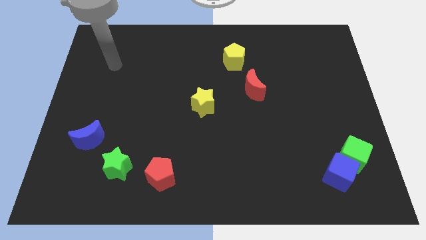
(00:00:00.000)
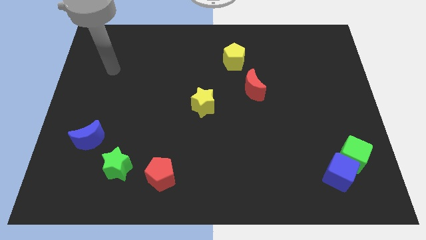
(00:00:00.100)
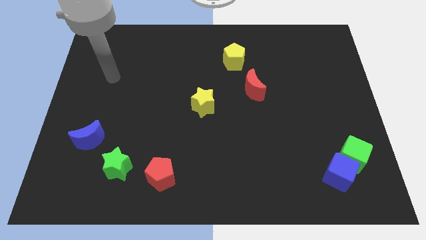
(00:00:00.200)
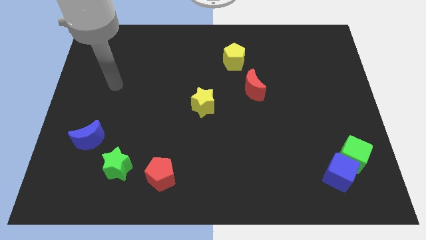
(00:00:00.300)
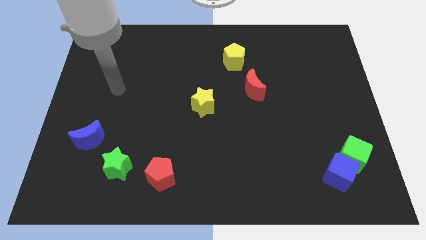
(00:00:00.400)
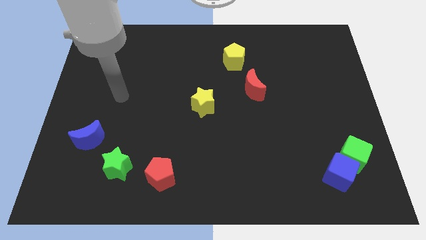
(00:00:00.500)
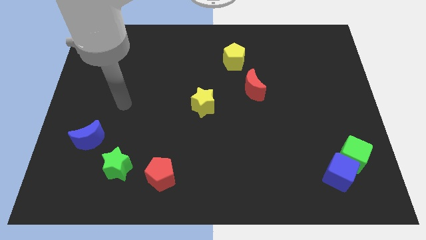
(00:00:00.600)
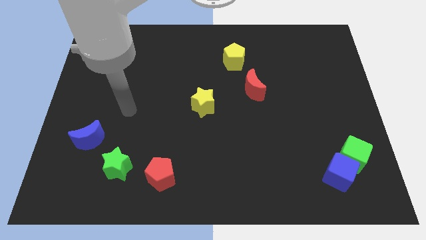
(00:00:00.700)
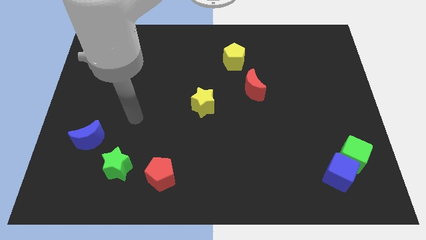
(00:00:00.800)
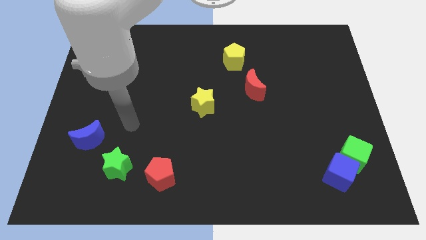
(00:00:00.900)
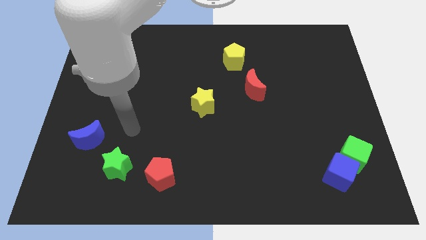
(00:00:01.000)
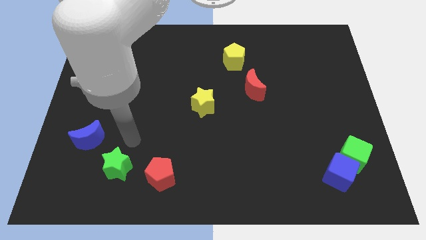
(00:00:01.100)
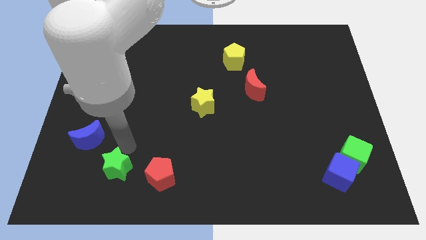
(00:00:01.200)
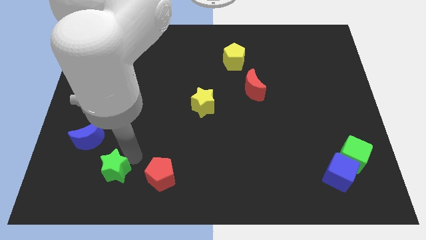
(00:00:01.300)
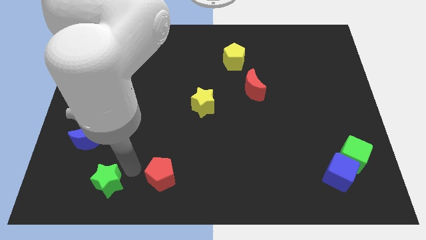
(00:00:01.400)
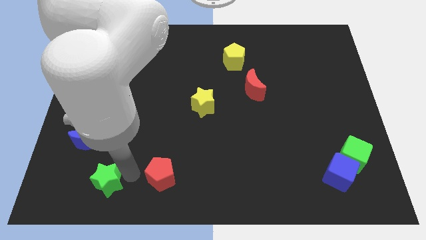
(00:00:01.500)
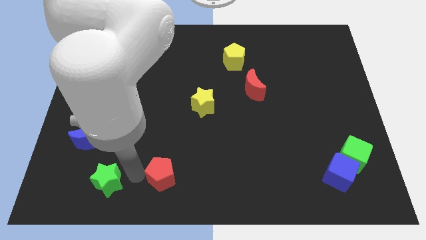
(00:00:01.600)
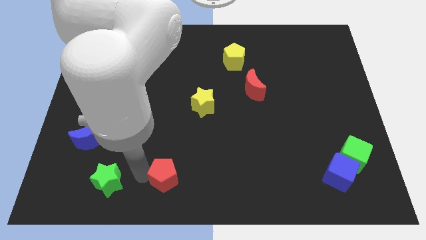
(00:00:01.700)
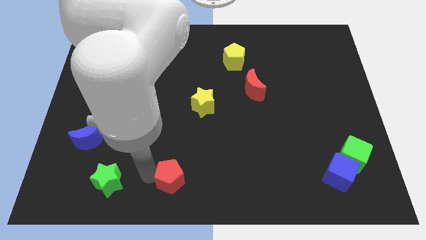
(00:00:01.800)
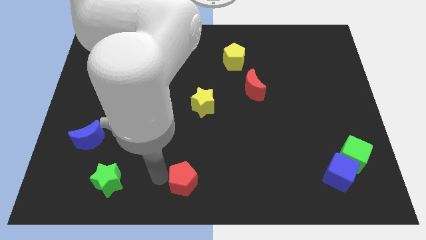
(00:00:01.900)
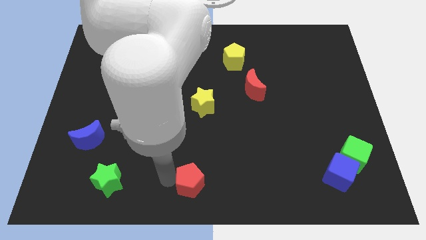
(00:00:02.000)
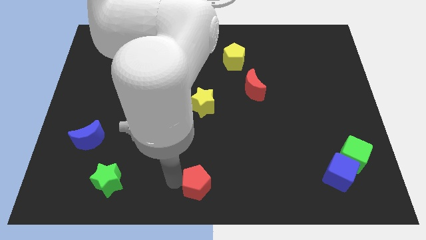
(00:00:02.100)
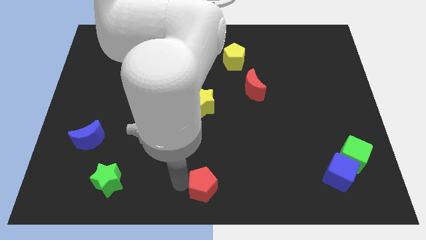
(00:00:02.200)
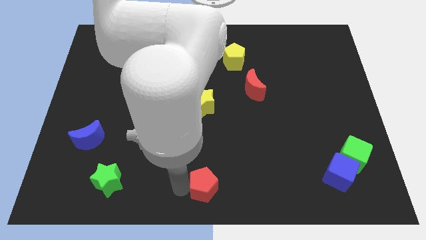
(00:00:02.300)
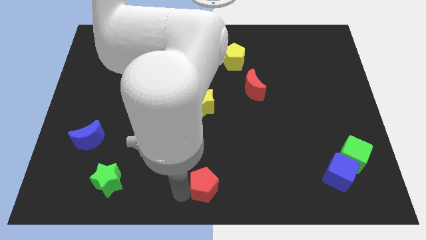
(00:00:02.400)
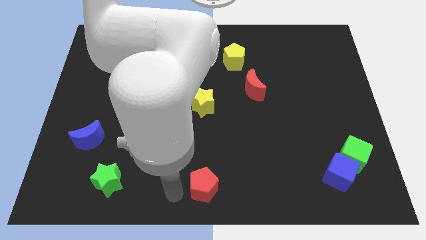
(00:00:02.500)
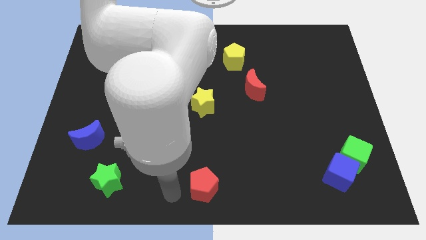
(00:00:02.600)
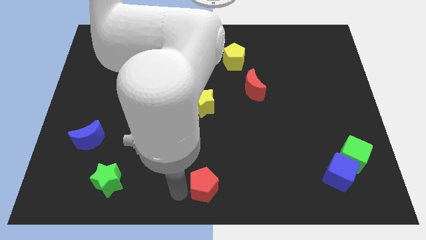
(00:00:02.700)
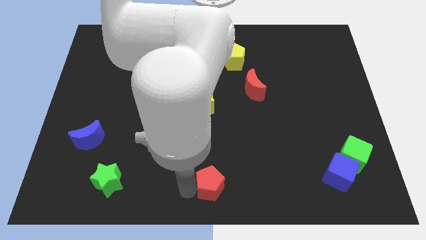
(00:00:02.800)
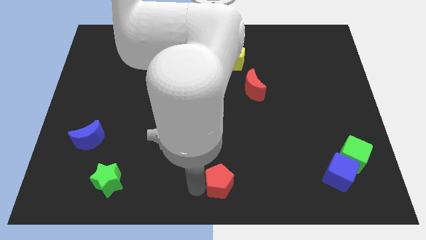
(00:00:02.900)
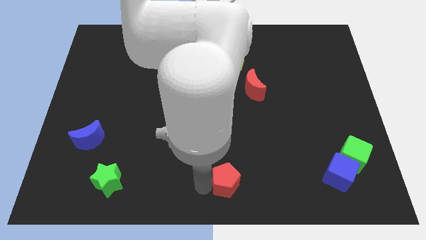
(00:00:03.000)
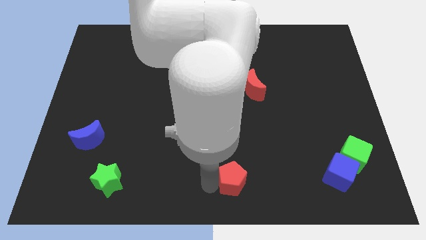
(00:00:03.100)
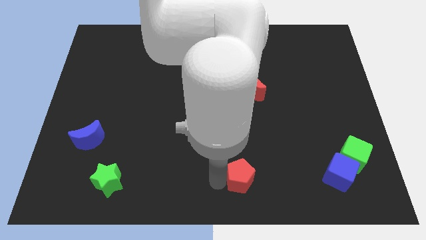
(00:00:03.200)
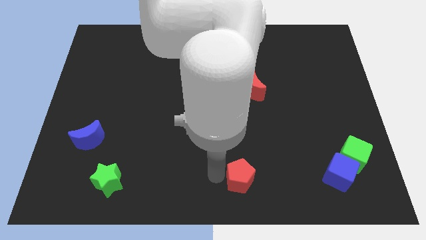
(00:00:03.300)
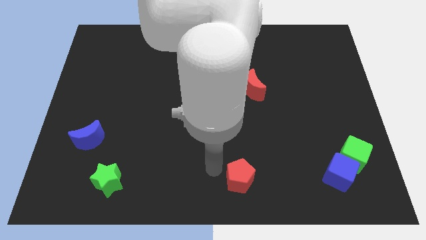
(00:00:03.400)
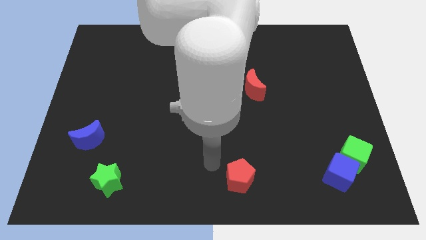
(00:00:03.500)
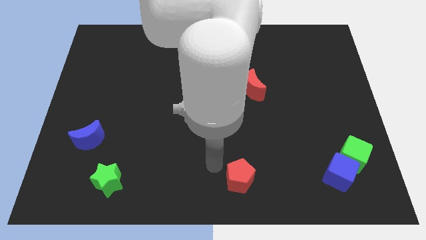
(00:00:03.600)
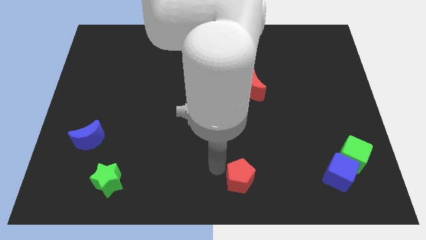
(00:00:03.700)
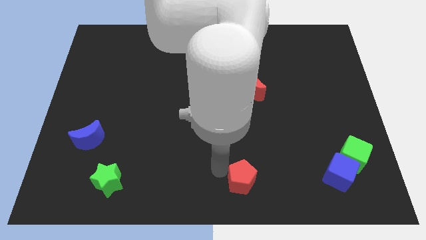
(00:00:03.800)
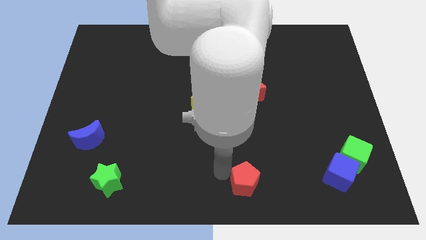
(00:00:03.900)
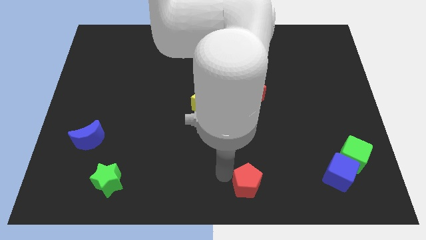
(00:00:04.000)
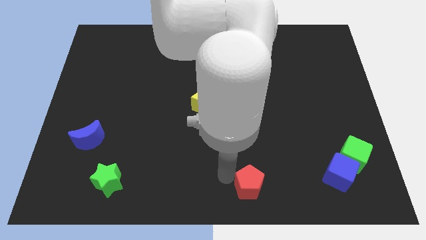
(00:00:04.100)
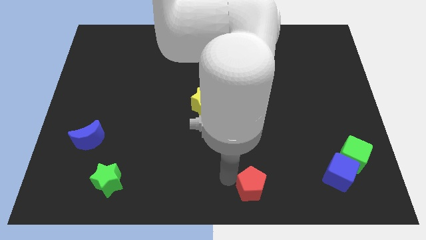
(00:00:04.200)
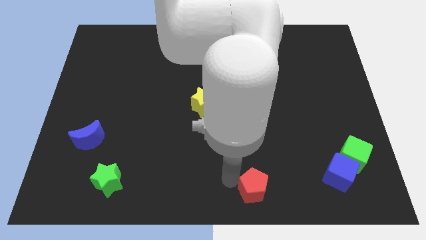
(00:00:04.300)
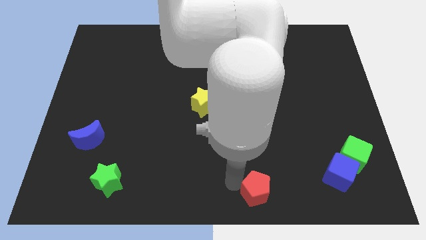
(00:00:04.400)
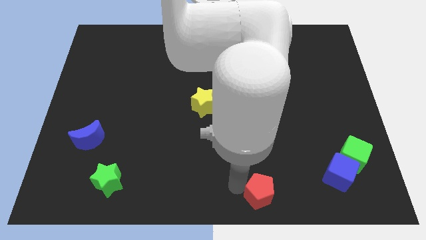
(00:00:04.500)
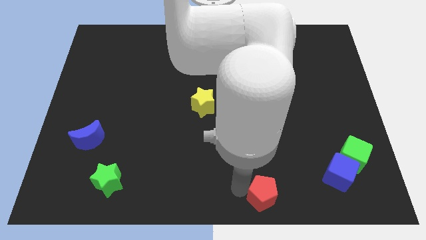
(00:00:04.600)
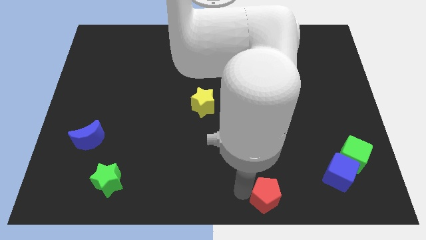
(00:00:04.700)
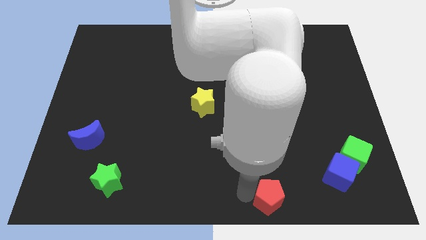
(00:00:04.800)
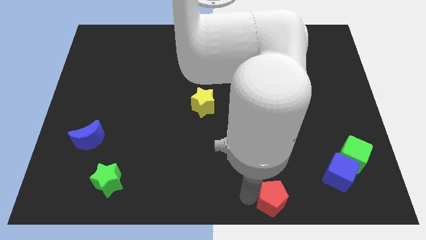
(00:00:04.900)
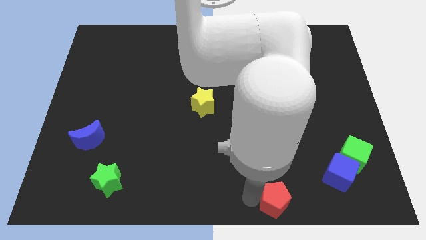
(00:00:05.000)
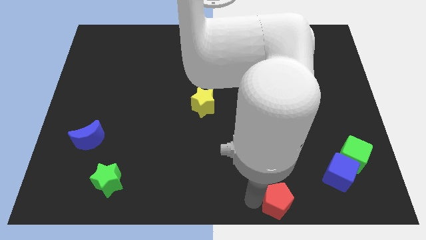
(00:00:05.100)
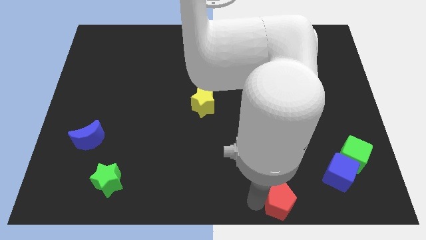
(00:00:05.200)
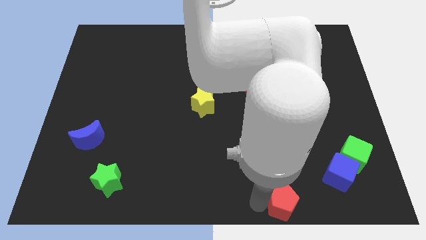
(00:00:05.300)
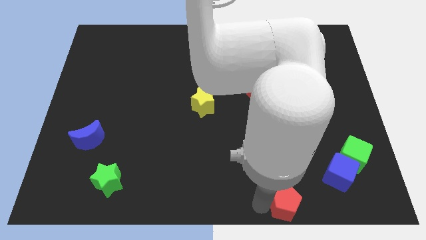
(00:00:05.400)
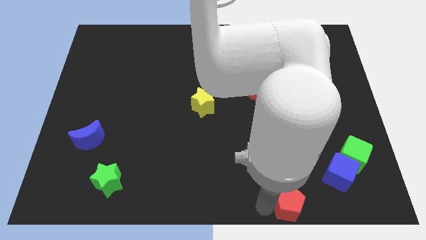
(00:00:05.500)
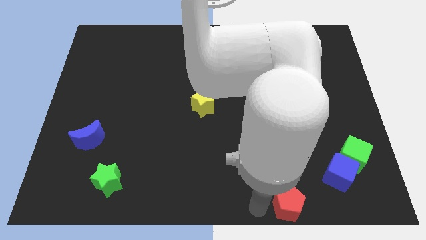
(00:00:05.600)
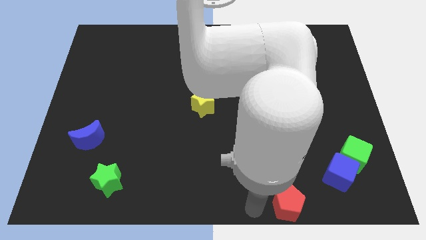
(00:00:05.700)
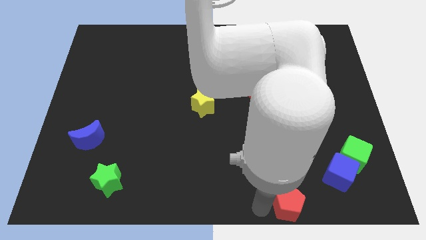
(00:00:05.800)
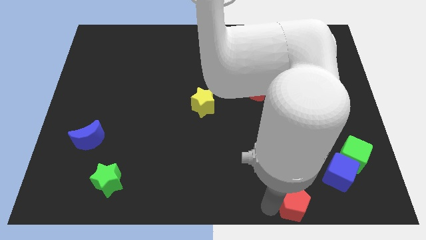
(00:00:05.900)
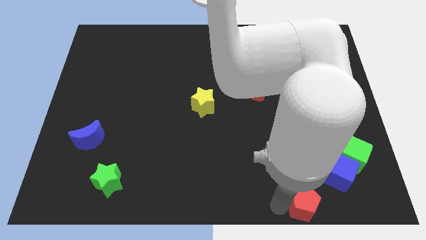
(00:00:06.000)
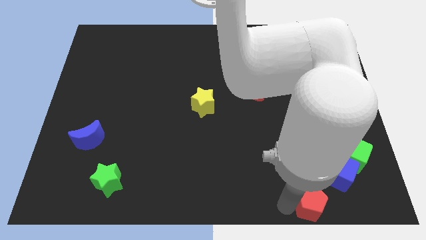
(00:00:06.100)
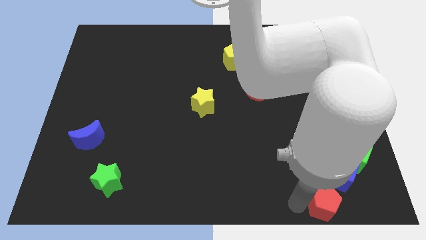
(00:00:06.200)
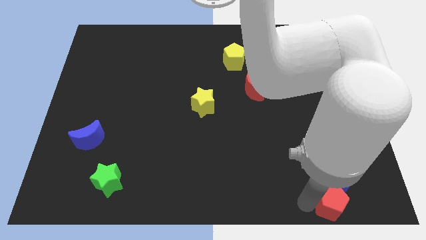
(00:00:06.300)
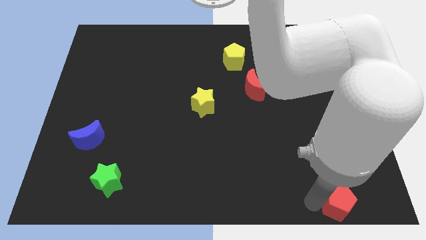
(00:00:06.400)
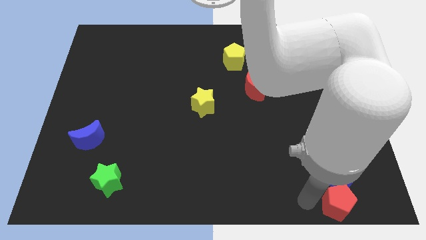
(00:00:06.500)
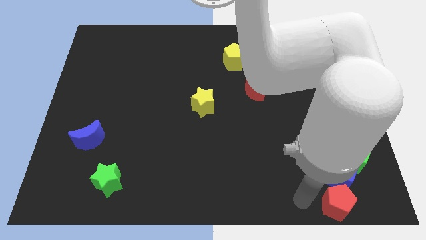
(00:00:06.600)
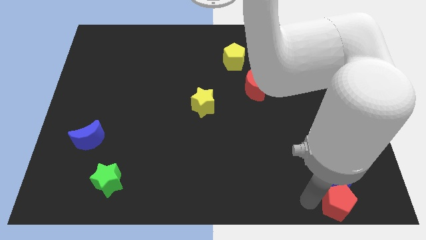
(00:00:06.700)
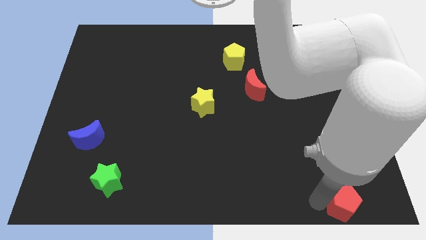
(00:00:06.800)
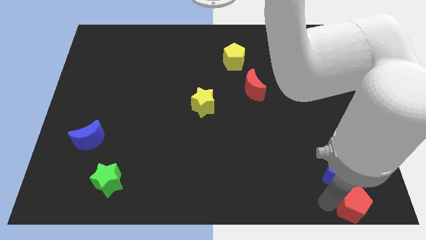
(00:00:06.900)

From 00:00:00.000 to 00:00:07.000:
push the red pentagon to the lower right corner
